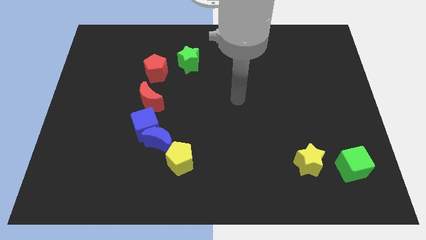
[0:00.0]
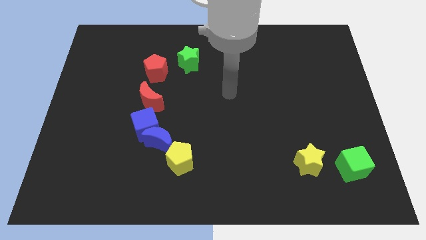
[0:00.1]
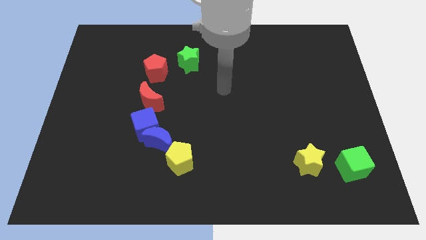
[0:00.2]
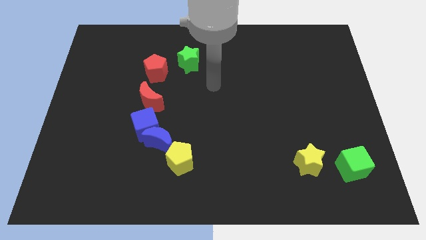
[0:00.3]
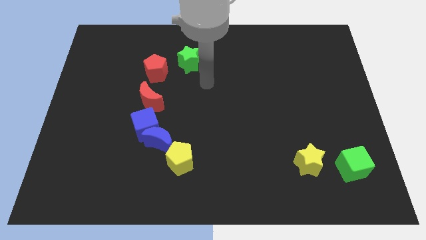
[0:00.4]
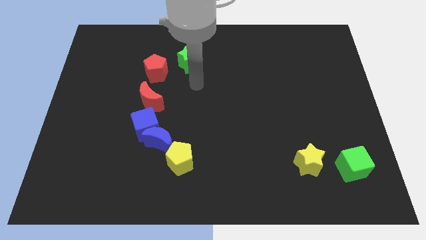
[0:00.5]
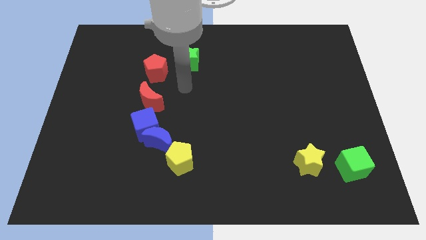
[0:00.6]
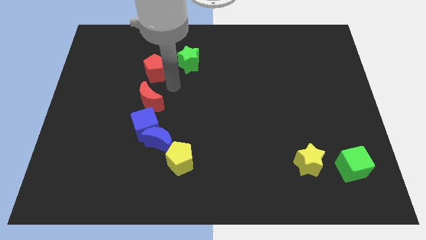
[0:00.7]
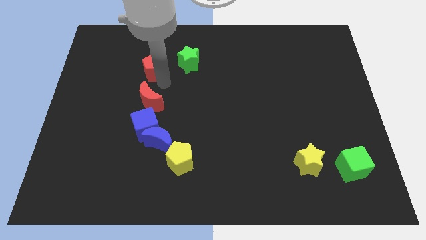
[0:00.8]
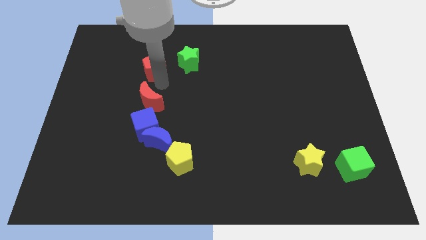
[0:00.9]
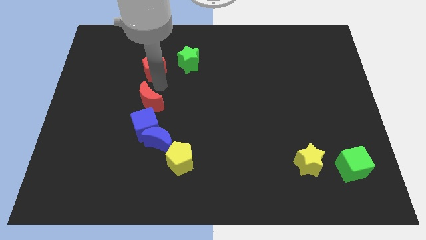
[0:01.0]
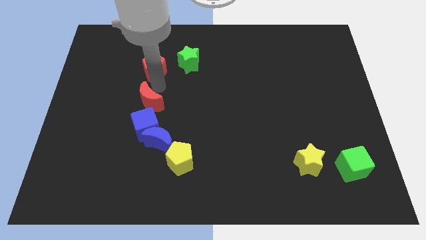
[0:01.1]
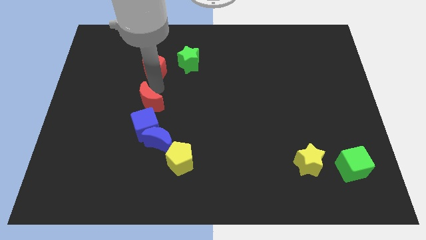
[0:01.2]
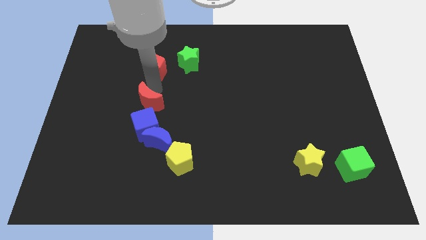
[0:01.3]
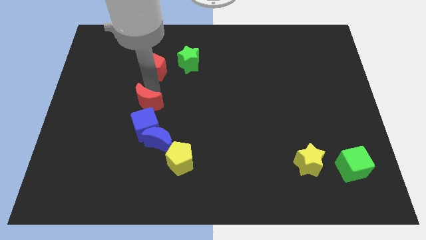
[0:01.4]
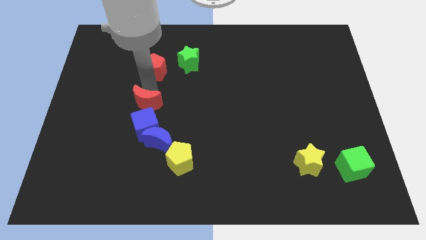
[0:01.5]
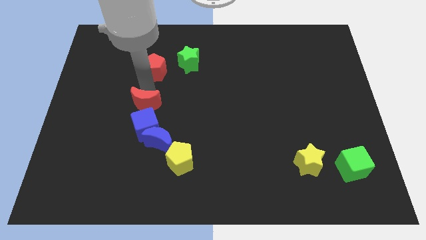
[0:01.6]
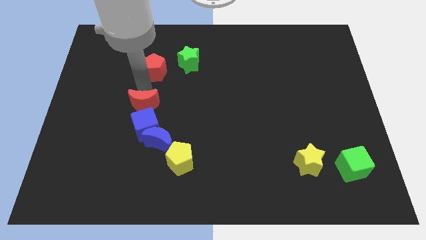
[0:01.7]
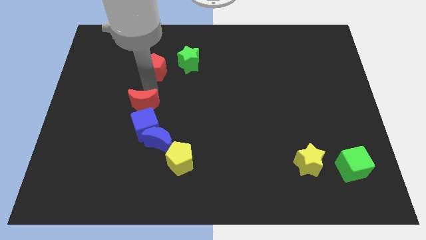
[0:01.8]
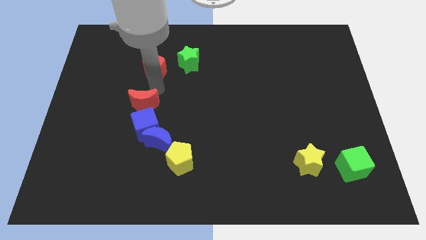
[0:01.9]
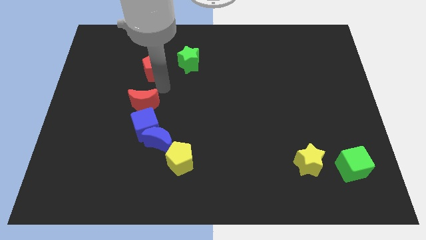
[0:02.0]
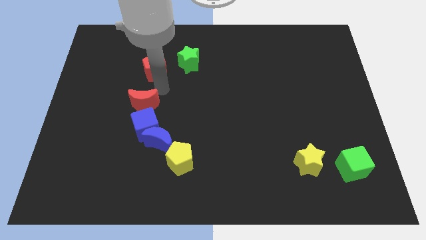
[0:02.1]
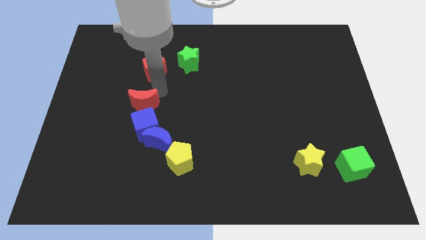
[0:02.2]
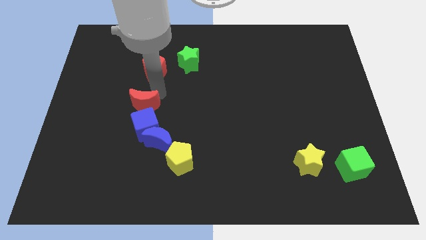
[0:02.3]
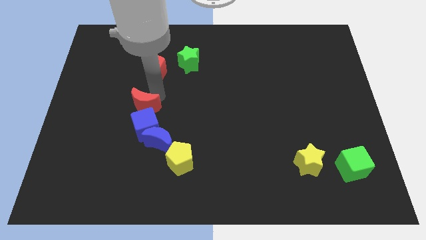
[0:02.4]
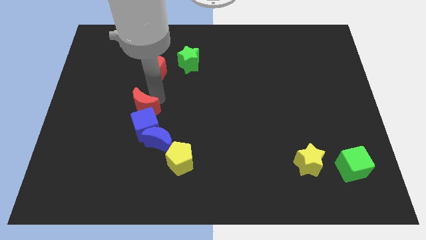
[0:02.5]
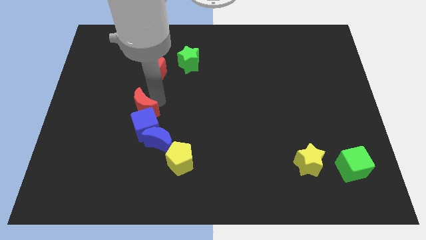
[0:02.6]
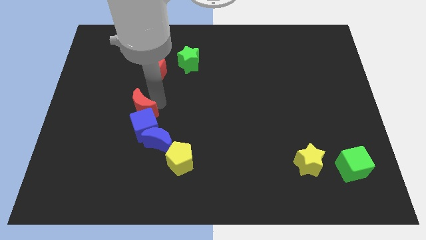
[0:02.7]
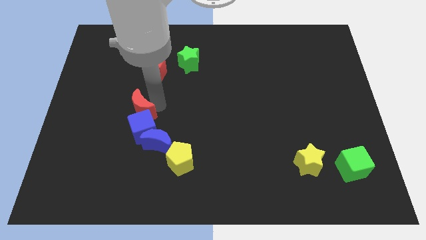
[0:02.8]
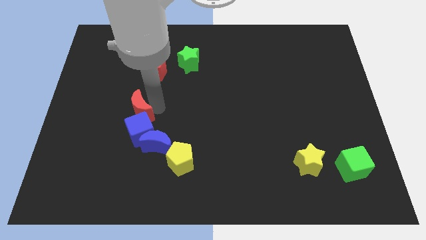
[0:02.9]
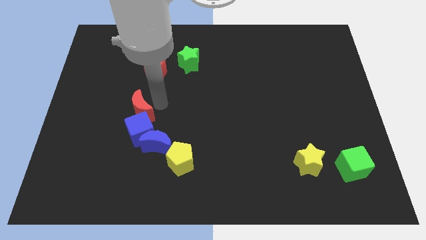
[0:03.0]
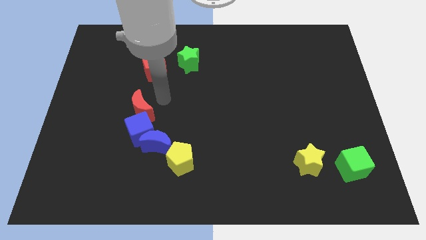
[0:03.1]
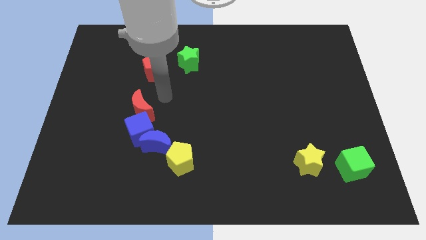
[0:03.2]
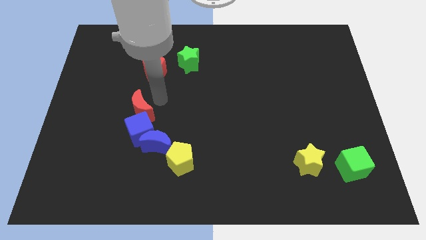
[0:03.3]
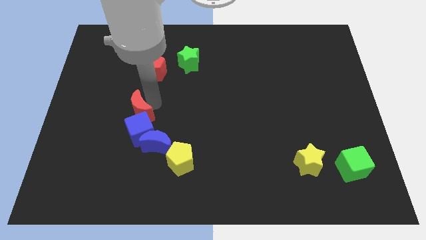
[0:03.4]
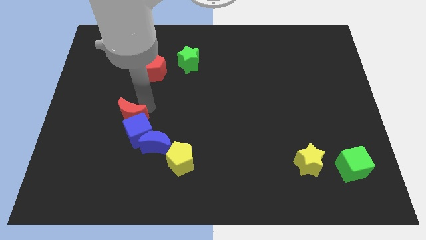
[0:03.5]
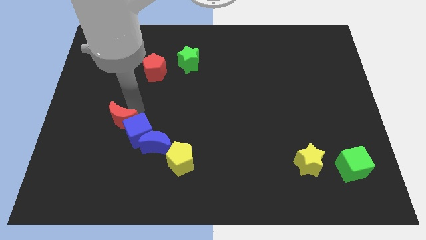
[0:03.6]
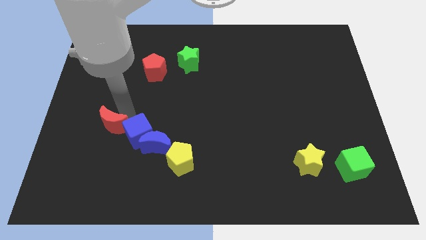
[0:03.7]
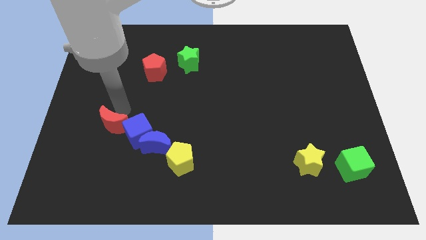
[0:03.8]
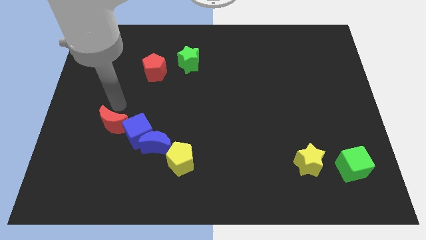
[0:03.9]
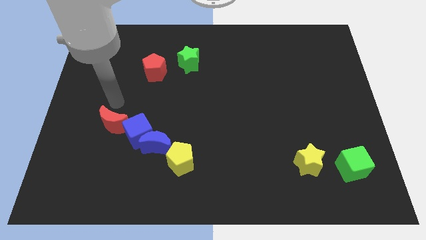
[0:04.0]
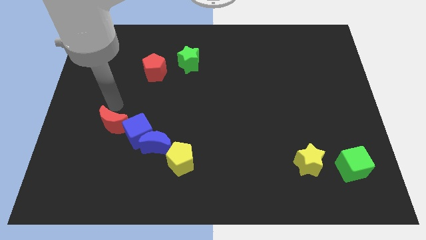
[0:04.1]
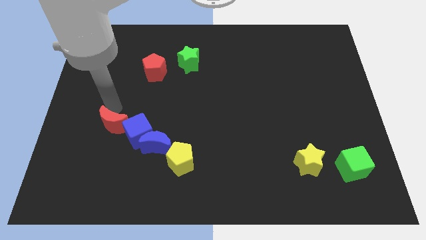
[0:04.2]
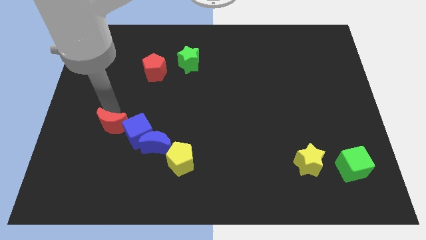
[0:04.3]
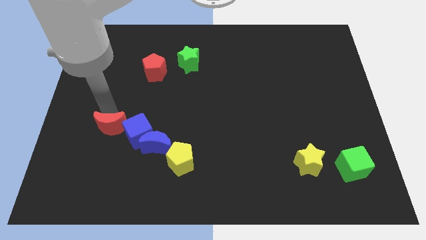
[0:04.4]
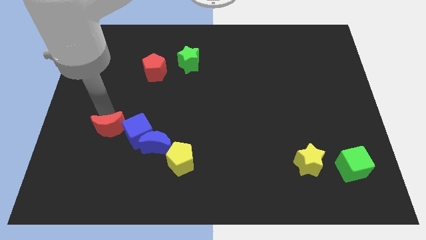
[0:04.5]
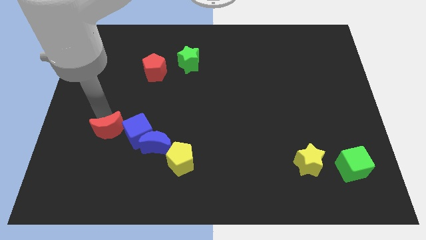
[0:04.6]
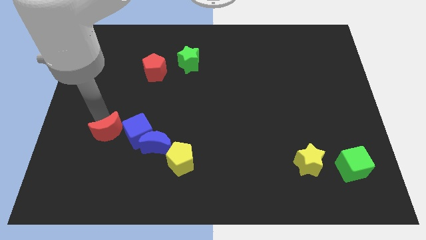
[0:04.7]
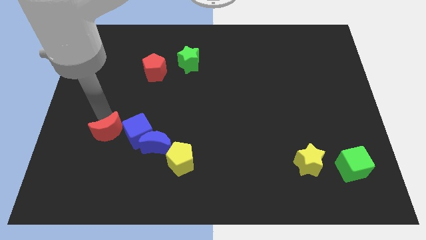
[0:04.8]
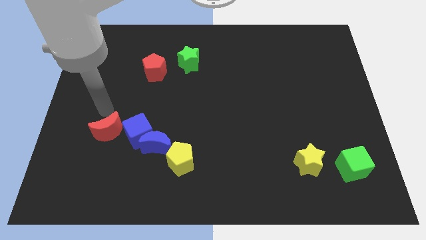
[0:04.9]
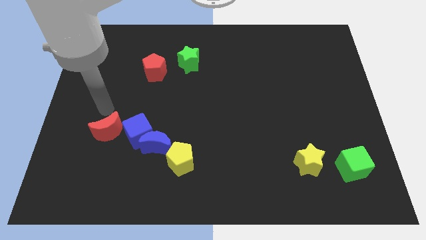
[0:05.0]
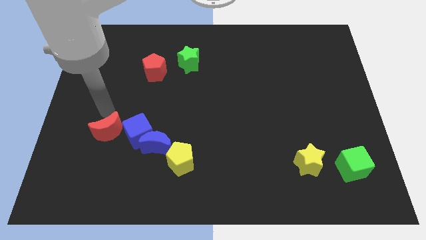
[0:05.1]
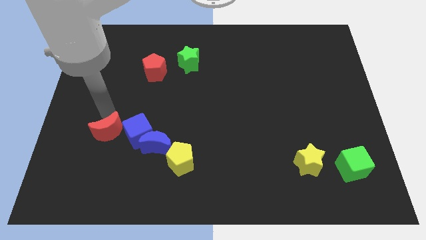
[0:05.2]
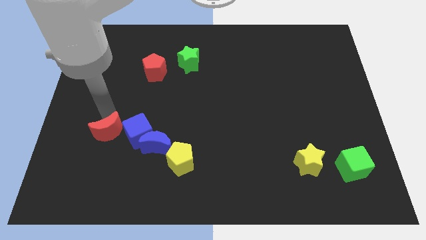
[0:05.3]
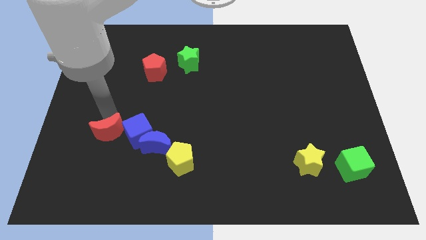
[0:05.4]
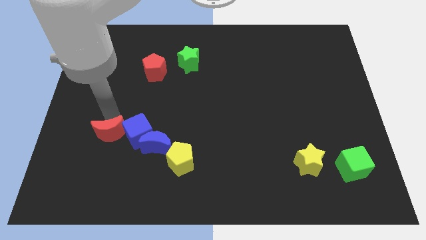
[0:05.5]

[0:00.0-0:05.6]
put the red moon to the bottom left of the blue cube

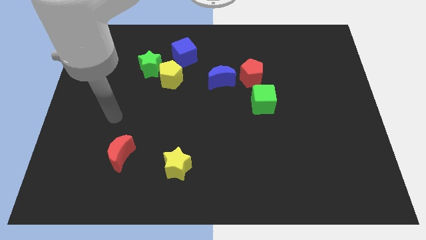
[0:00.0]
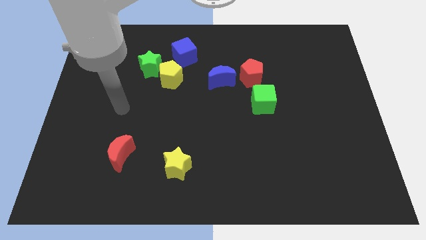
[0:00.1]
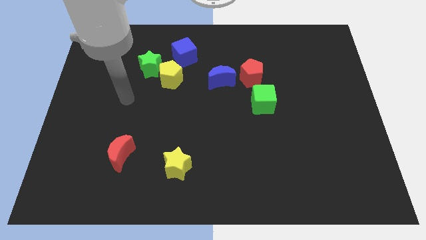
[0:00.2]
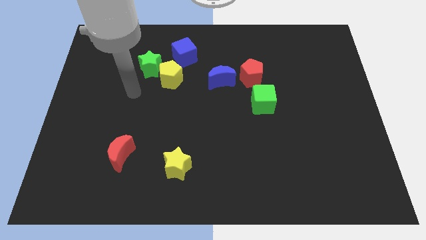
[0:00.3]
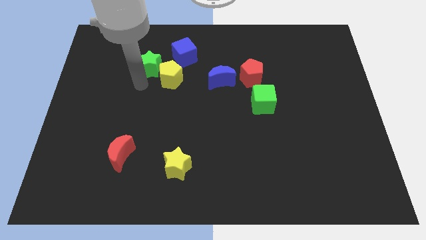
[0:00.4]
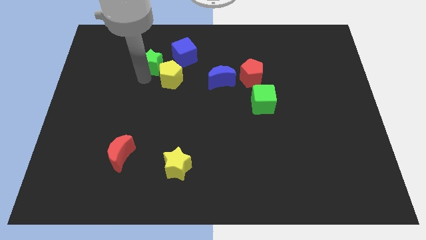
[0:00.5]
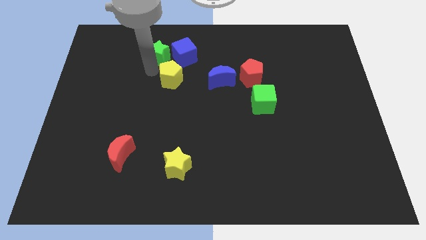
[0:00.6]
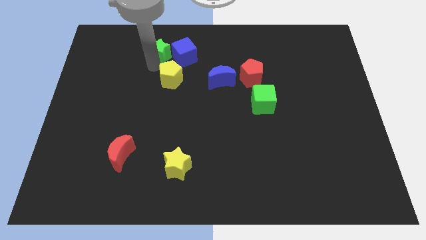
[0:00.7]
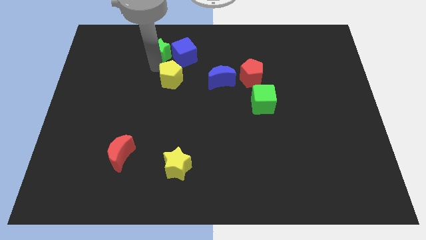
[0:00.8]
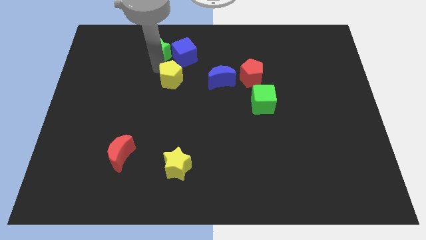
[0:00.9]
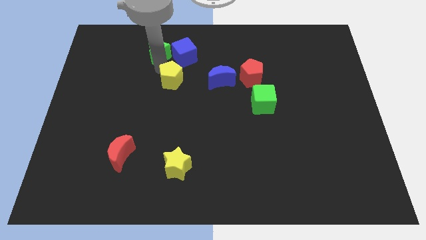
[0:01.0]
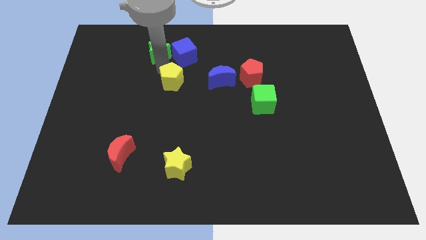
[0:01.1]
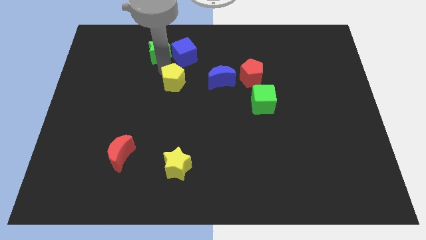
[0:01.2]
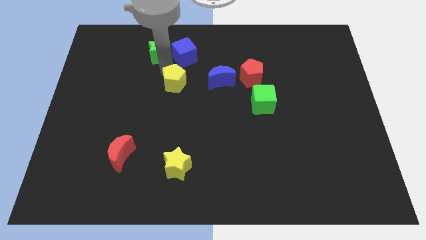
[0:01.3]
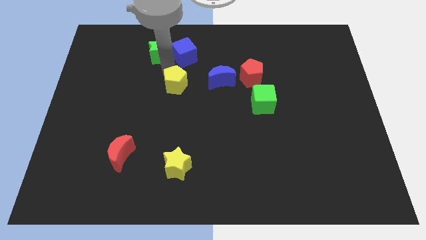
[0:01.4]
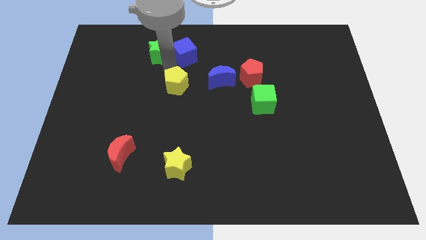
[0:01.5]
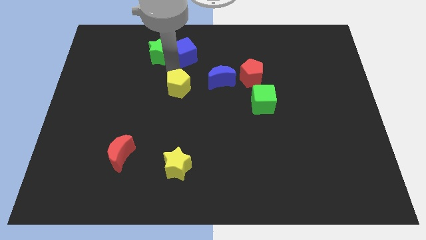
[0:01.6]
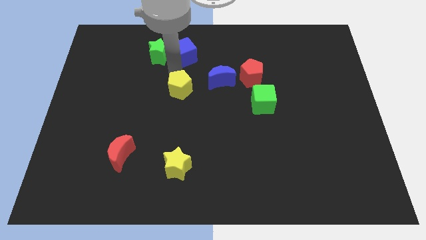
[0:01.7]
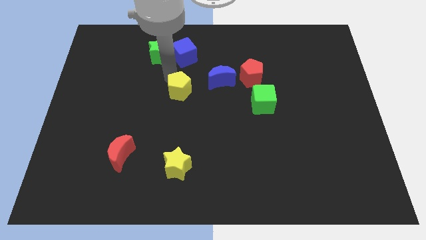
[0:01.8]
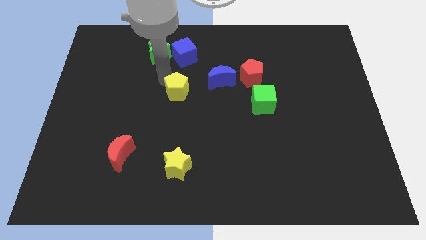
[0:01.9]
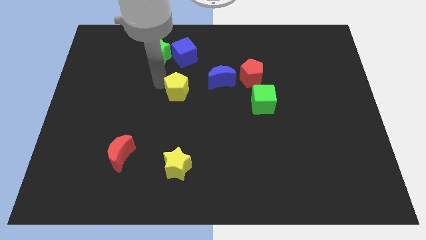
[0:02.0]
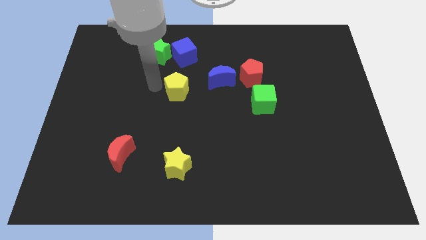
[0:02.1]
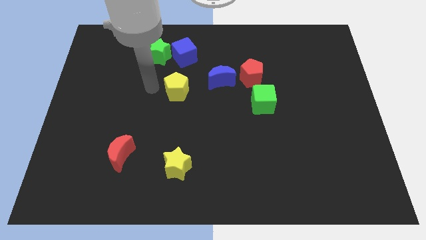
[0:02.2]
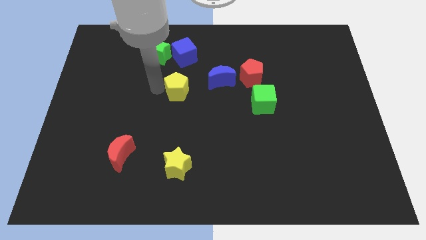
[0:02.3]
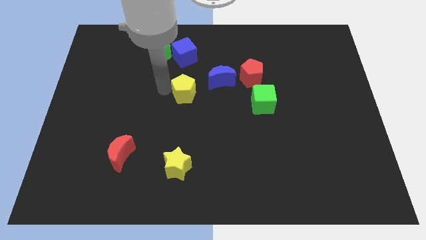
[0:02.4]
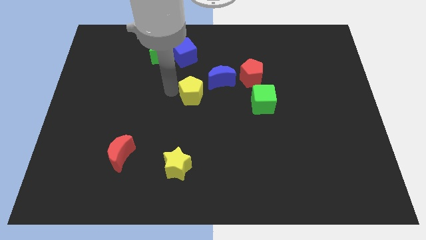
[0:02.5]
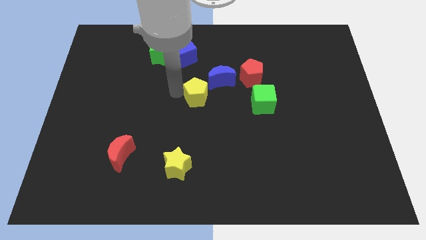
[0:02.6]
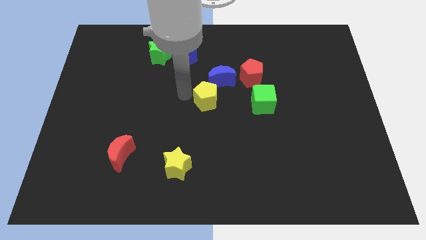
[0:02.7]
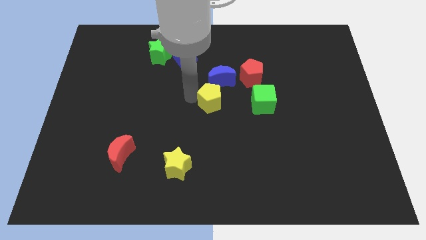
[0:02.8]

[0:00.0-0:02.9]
move the yellow pentagon diagonally down and to the left of the red pentagon
